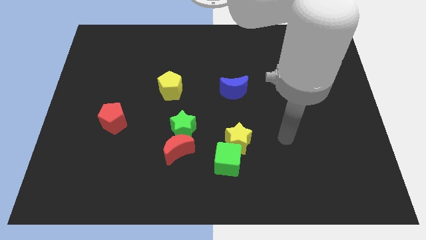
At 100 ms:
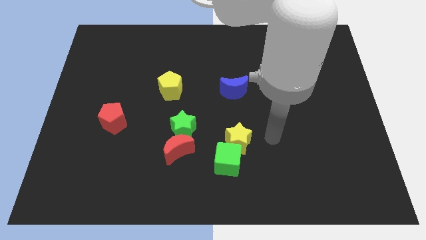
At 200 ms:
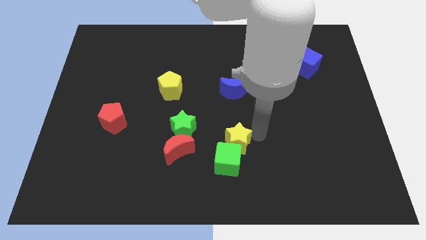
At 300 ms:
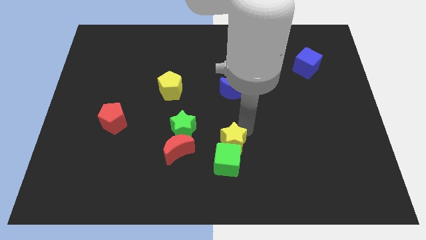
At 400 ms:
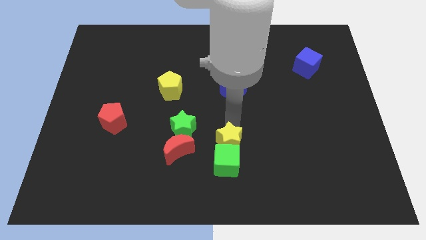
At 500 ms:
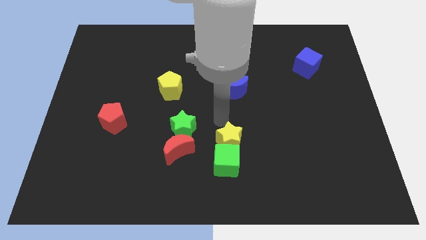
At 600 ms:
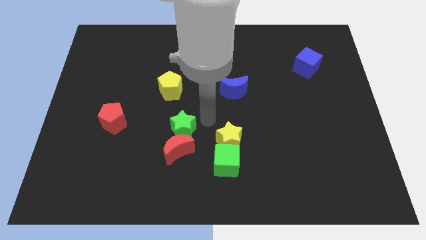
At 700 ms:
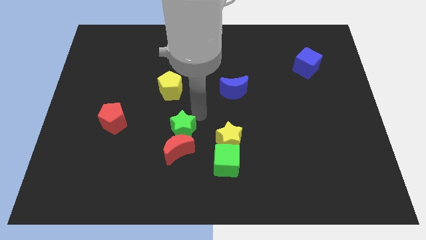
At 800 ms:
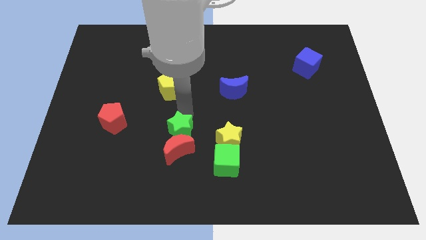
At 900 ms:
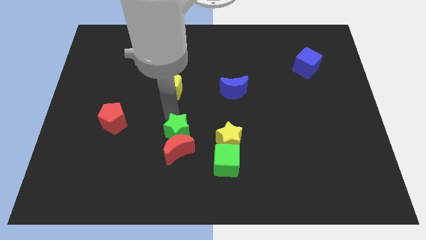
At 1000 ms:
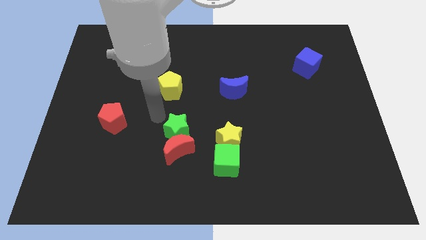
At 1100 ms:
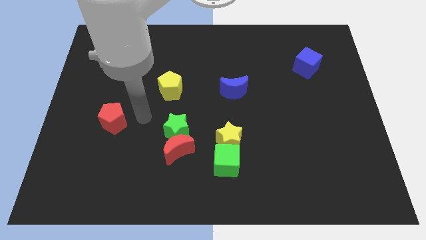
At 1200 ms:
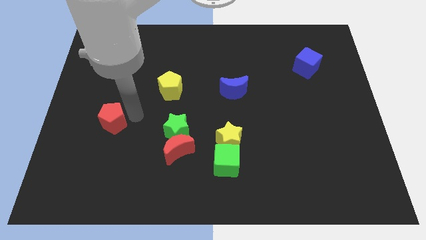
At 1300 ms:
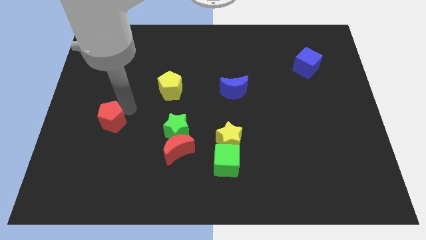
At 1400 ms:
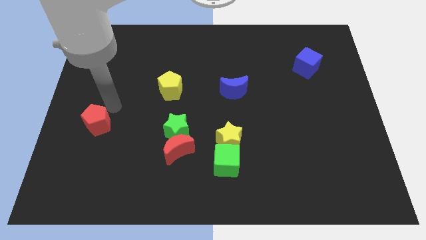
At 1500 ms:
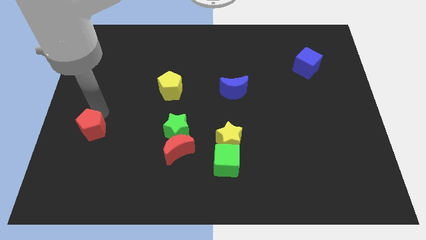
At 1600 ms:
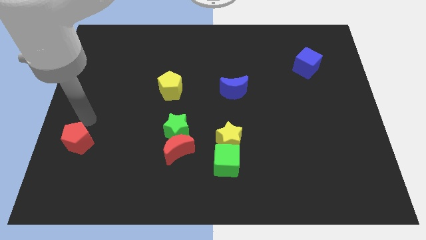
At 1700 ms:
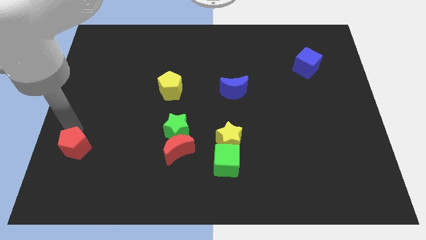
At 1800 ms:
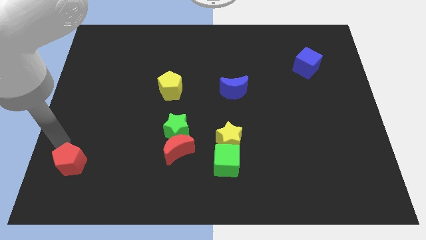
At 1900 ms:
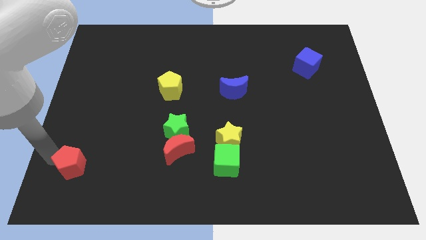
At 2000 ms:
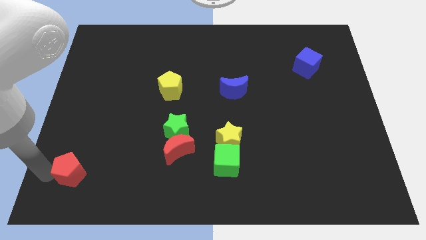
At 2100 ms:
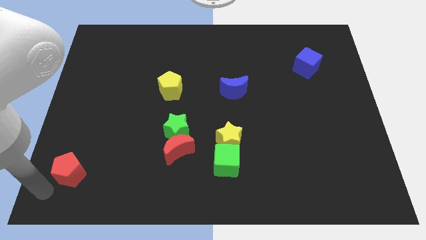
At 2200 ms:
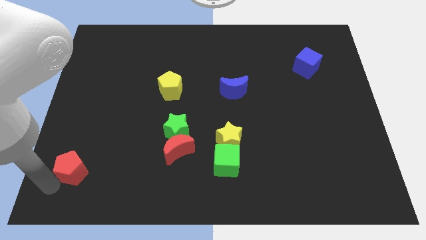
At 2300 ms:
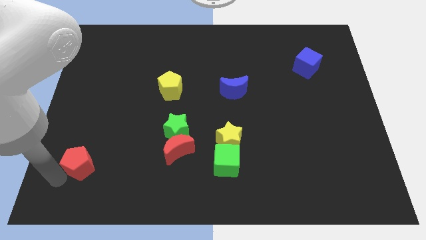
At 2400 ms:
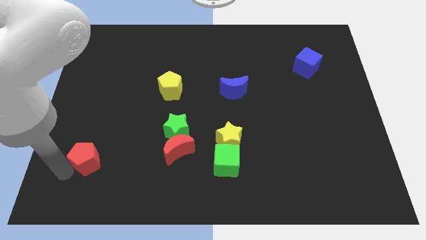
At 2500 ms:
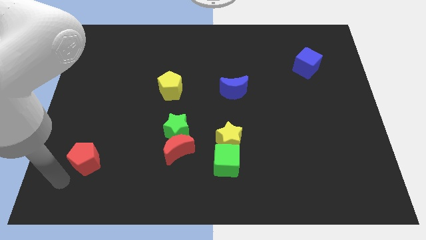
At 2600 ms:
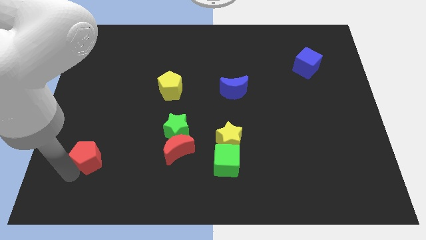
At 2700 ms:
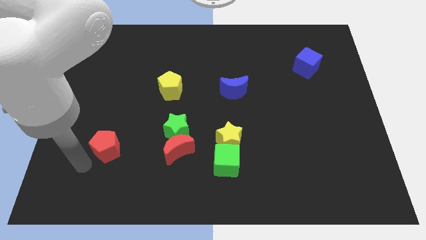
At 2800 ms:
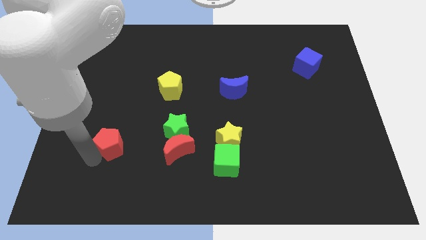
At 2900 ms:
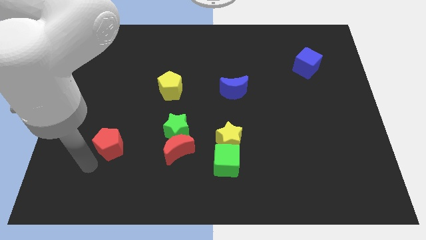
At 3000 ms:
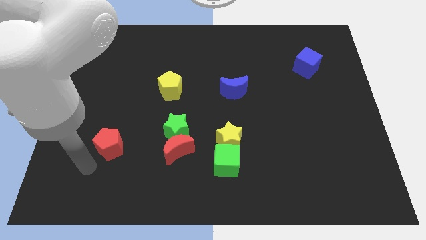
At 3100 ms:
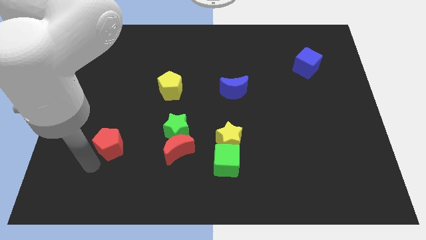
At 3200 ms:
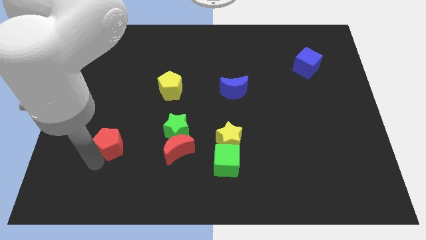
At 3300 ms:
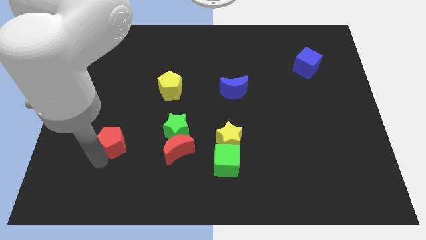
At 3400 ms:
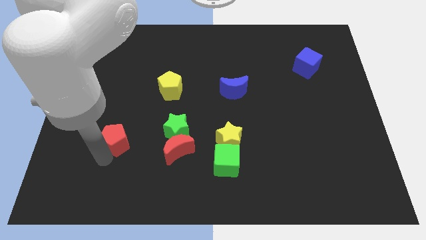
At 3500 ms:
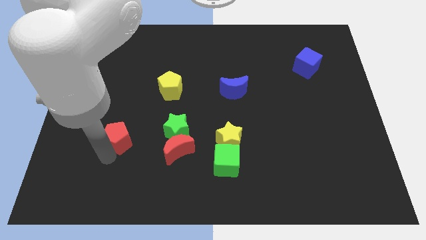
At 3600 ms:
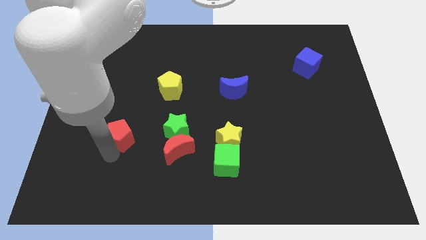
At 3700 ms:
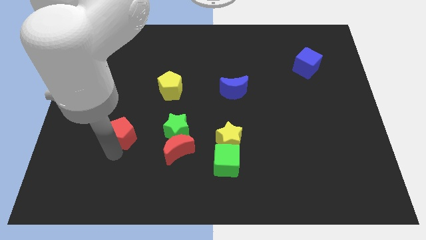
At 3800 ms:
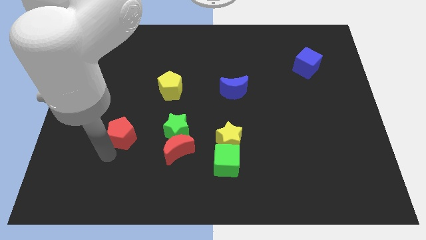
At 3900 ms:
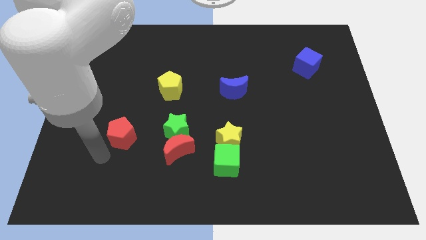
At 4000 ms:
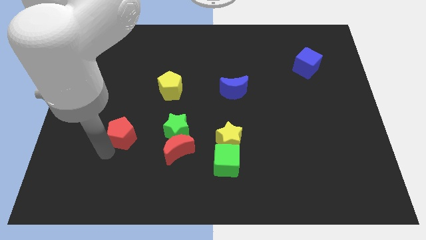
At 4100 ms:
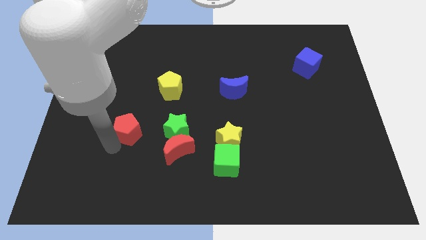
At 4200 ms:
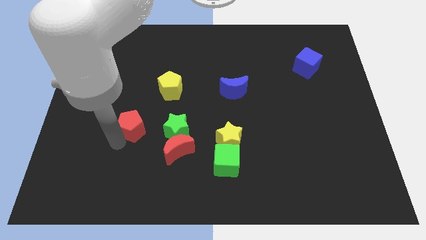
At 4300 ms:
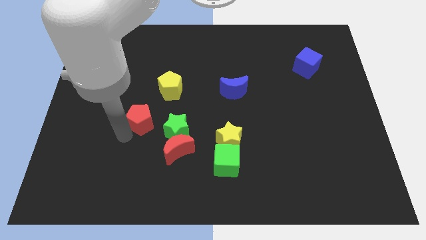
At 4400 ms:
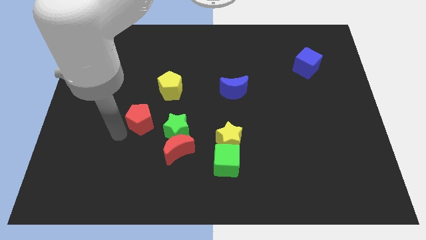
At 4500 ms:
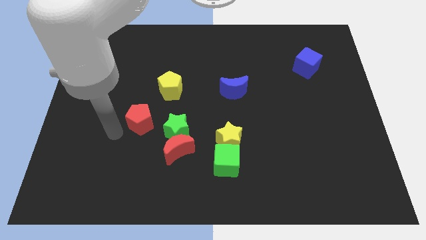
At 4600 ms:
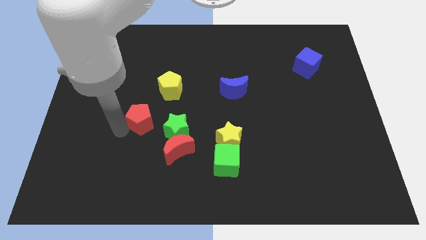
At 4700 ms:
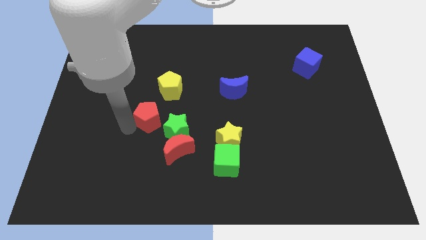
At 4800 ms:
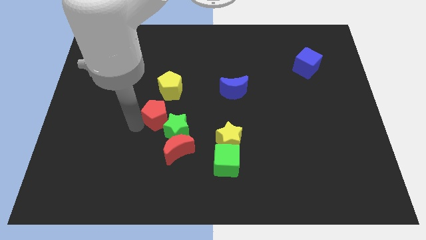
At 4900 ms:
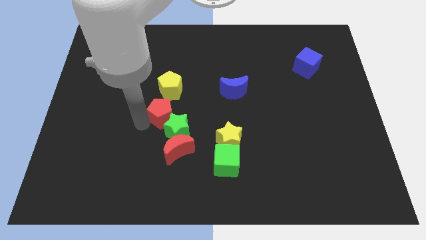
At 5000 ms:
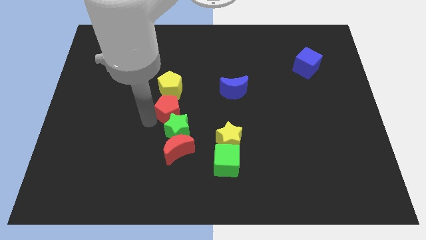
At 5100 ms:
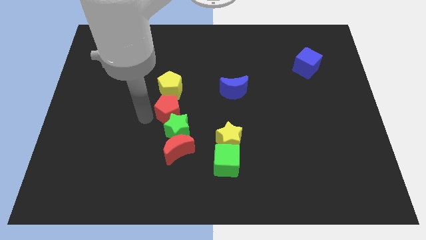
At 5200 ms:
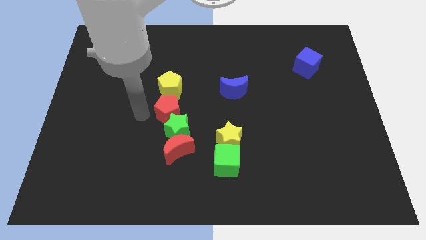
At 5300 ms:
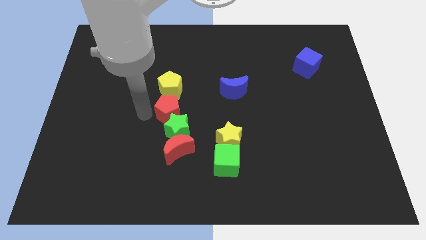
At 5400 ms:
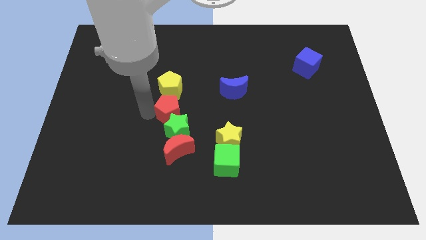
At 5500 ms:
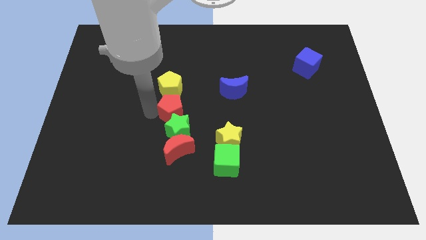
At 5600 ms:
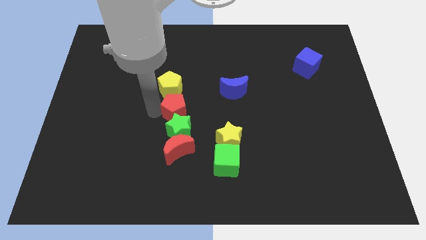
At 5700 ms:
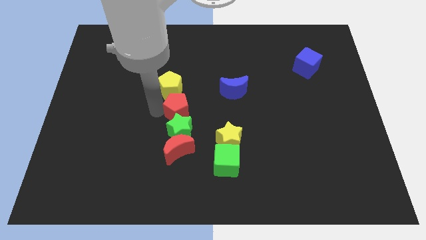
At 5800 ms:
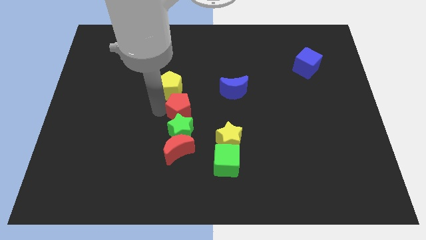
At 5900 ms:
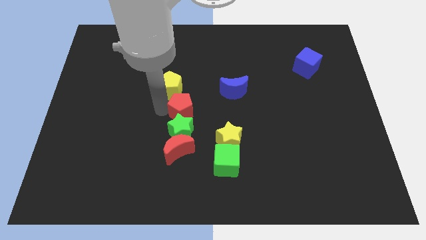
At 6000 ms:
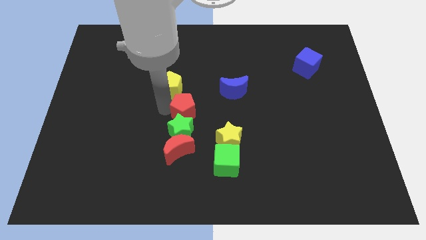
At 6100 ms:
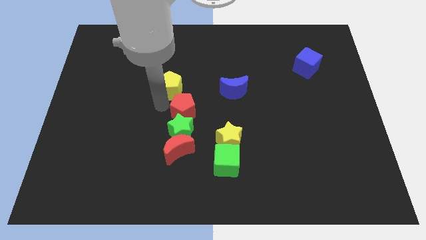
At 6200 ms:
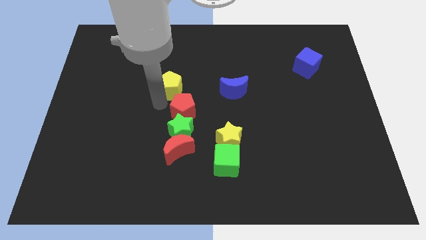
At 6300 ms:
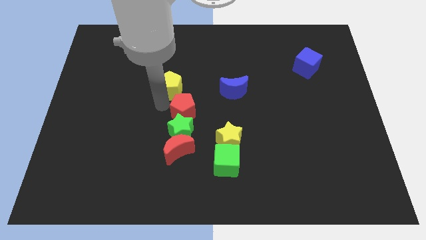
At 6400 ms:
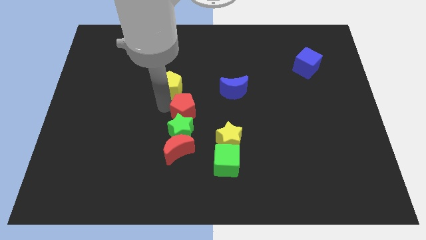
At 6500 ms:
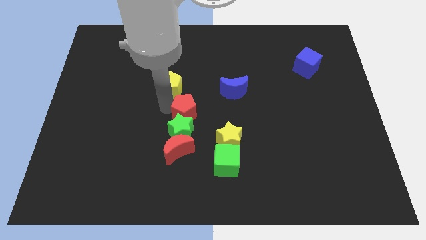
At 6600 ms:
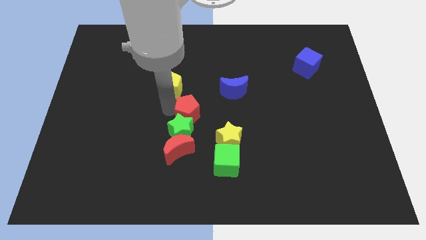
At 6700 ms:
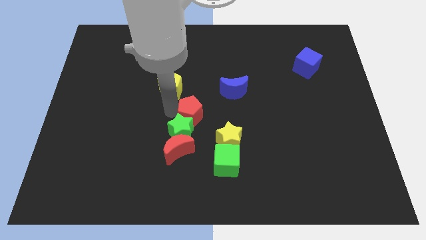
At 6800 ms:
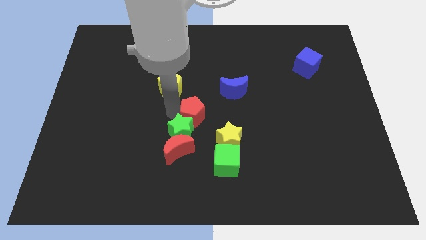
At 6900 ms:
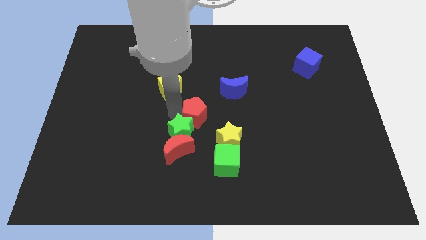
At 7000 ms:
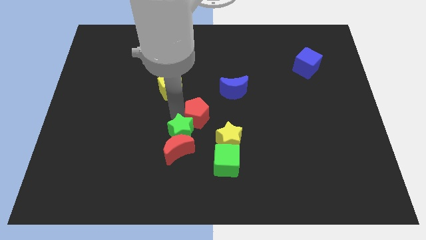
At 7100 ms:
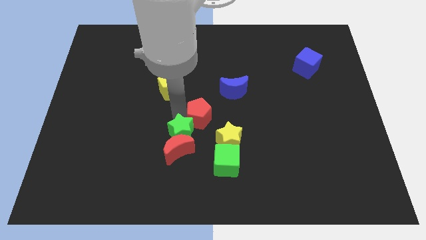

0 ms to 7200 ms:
move the red pentagon to the right

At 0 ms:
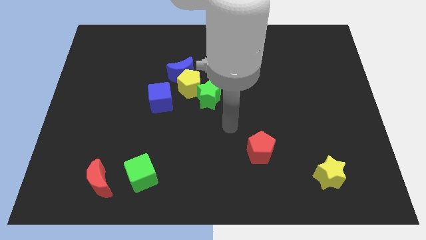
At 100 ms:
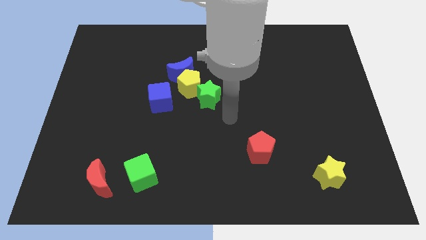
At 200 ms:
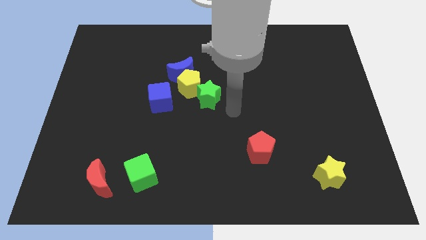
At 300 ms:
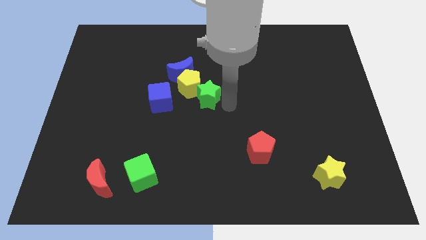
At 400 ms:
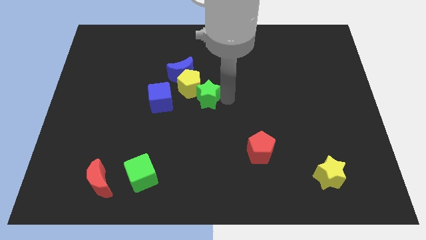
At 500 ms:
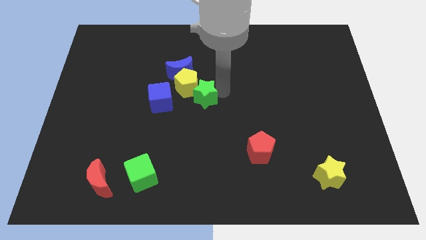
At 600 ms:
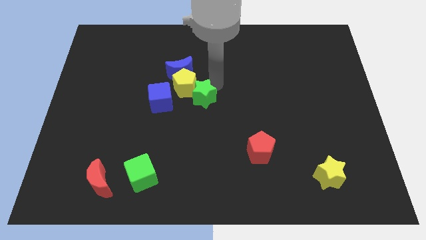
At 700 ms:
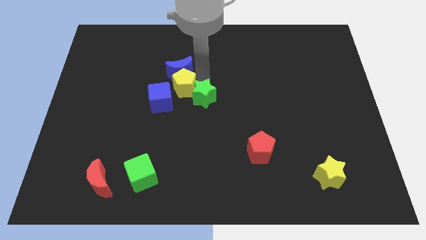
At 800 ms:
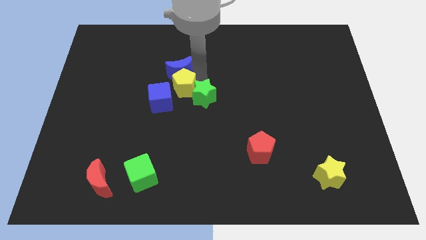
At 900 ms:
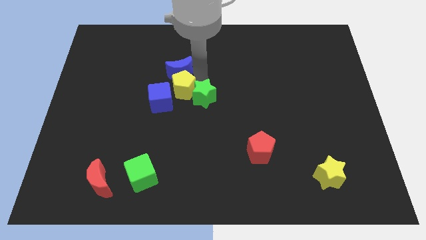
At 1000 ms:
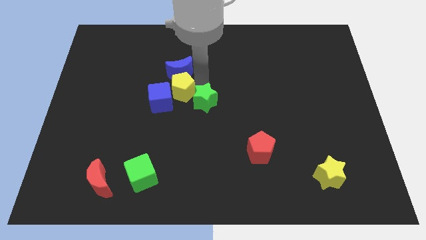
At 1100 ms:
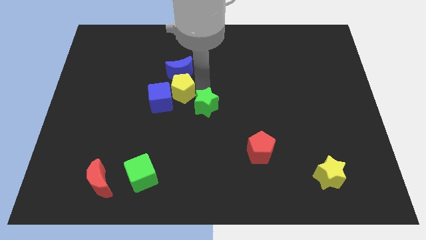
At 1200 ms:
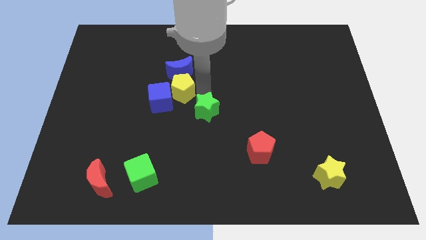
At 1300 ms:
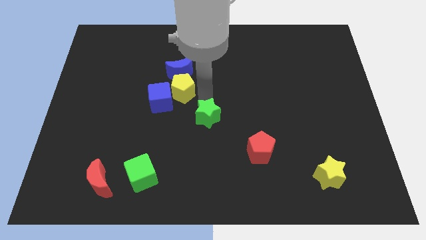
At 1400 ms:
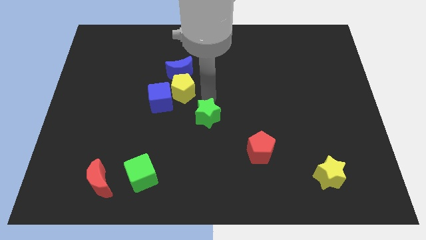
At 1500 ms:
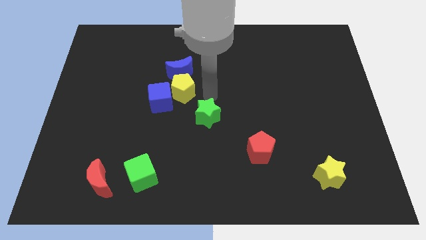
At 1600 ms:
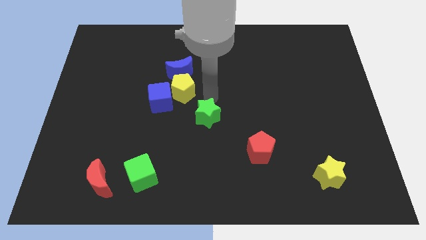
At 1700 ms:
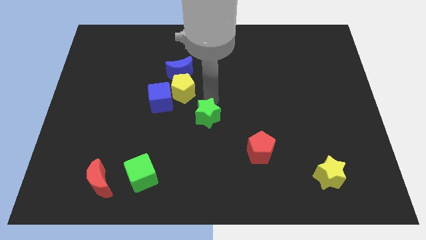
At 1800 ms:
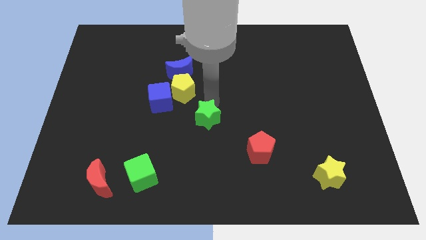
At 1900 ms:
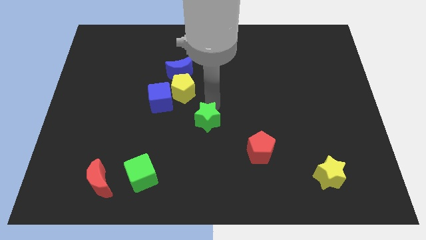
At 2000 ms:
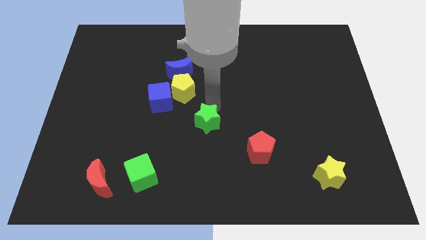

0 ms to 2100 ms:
slightly slide the green star down
